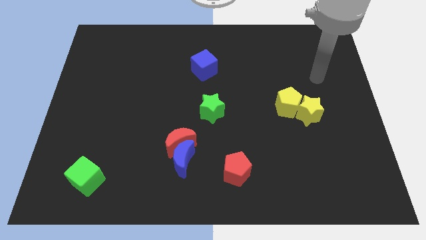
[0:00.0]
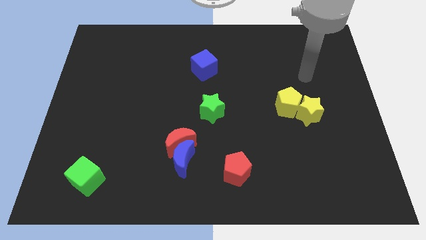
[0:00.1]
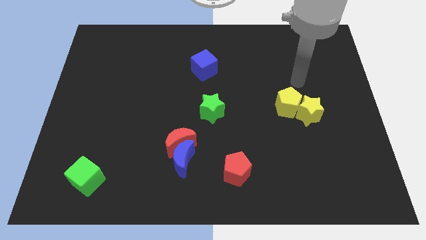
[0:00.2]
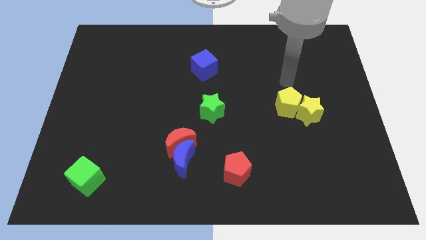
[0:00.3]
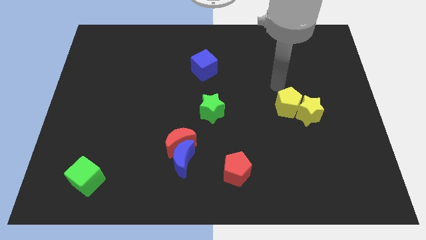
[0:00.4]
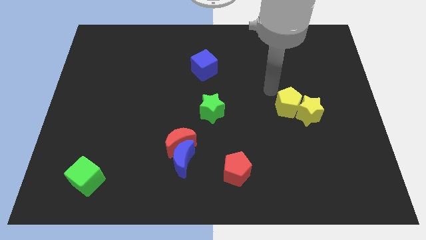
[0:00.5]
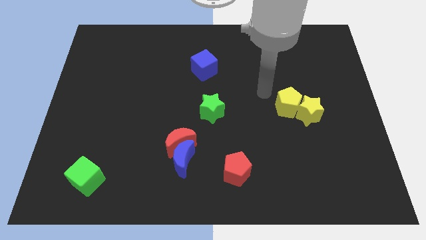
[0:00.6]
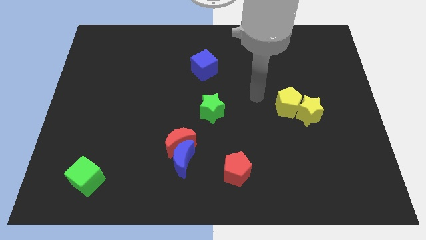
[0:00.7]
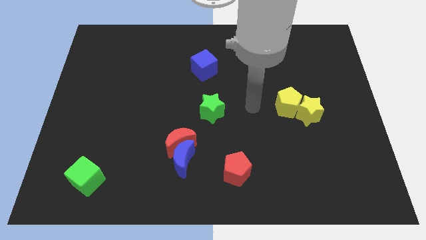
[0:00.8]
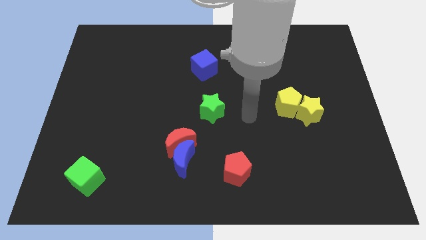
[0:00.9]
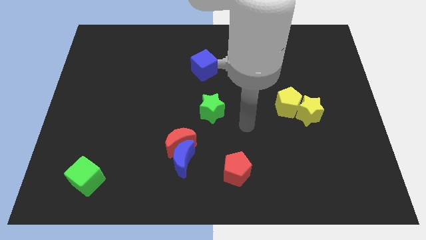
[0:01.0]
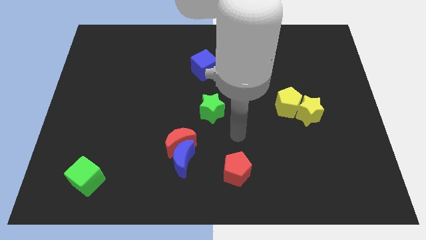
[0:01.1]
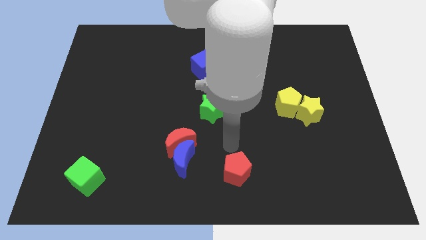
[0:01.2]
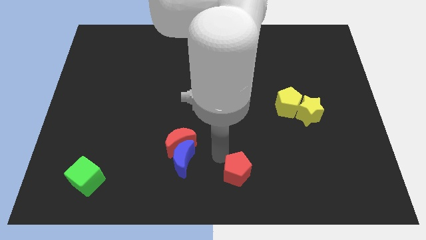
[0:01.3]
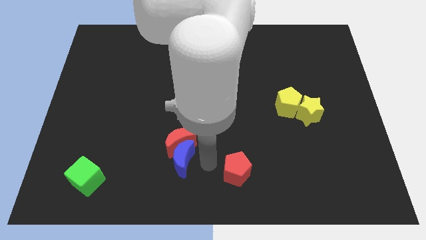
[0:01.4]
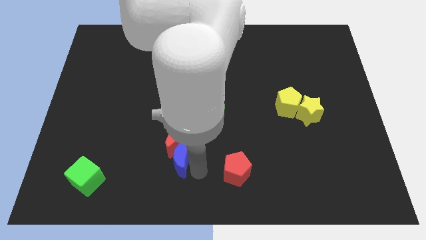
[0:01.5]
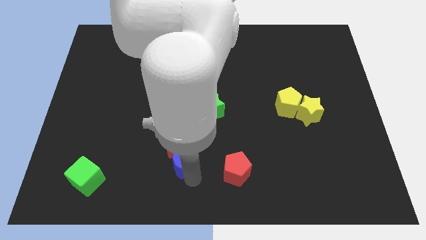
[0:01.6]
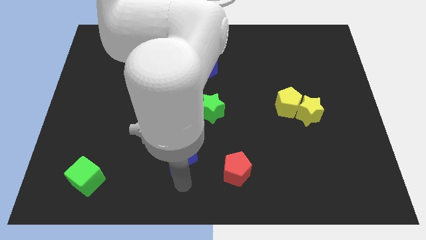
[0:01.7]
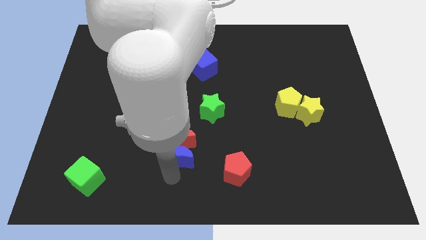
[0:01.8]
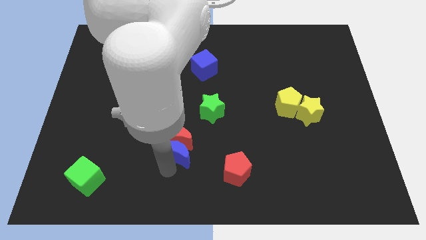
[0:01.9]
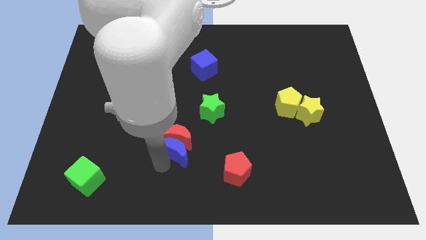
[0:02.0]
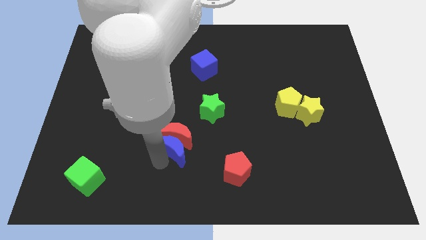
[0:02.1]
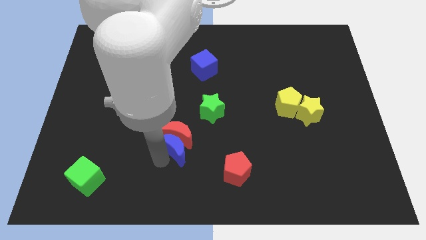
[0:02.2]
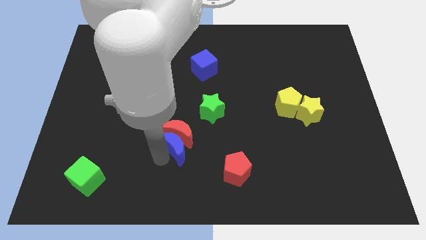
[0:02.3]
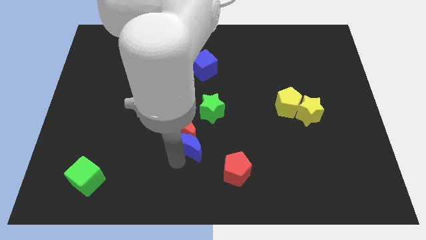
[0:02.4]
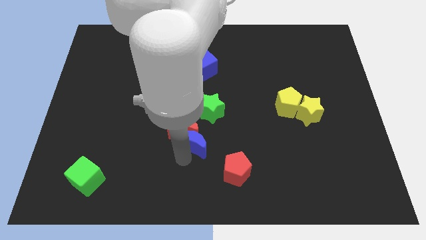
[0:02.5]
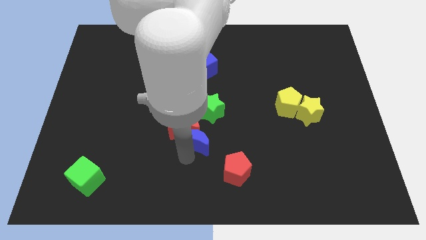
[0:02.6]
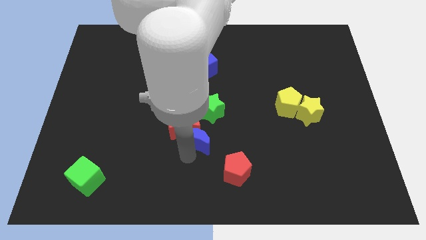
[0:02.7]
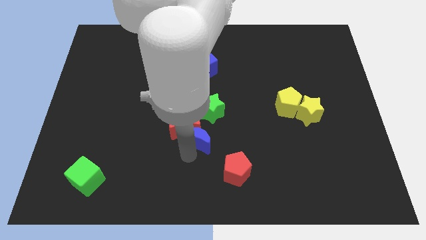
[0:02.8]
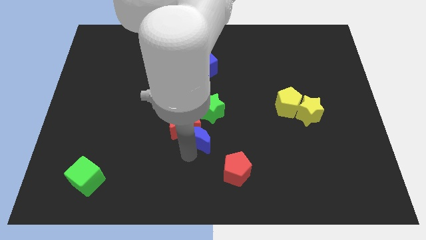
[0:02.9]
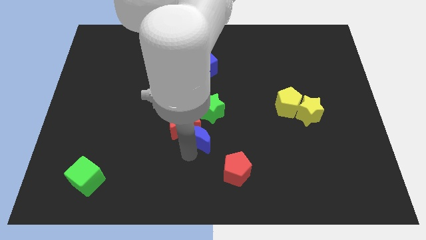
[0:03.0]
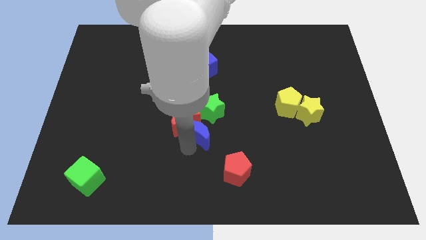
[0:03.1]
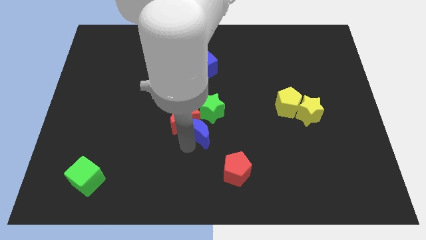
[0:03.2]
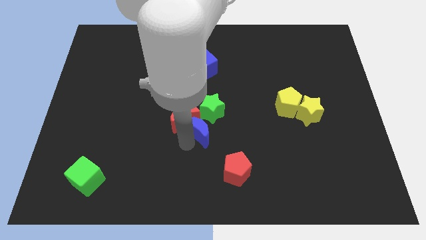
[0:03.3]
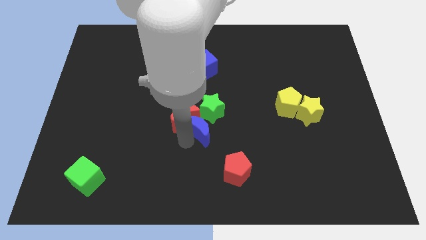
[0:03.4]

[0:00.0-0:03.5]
push the red moon upwards somewhat

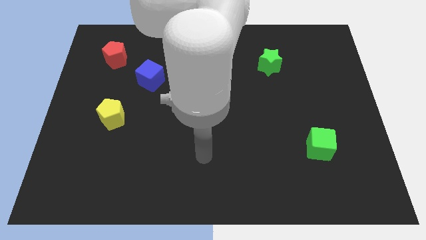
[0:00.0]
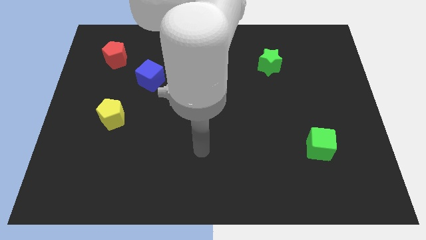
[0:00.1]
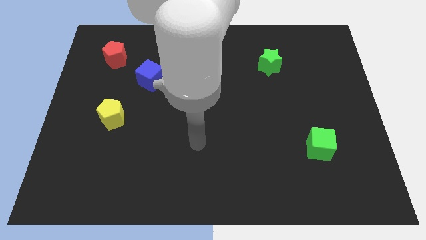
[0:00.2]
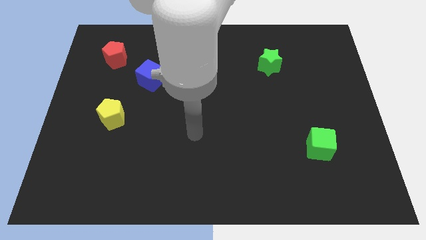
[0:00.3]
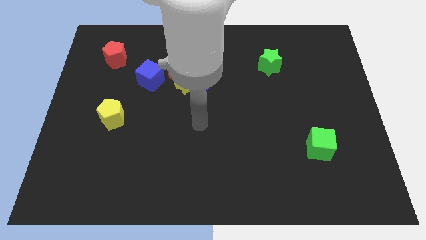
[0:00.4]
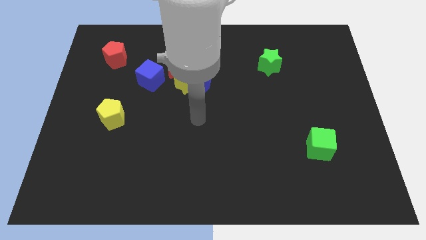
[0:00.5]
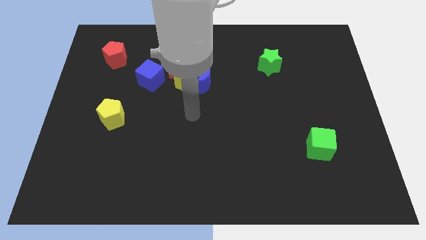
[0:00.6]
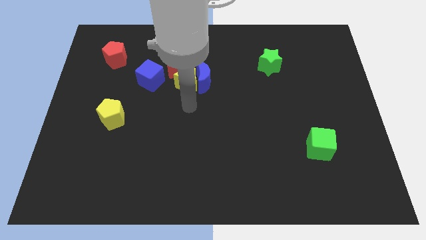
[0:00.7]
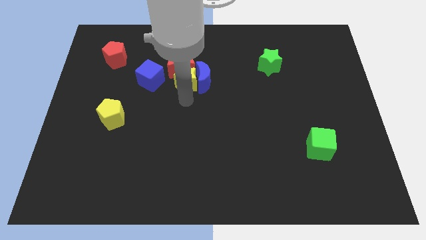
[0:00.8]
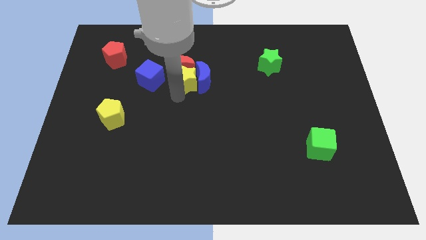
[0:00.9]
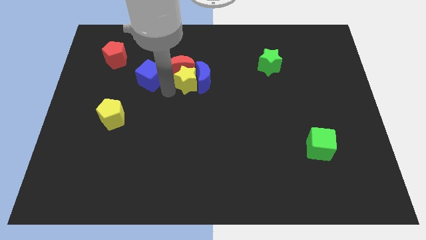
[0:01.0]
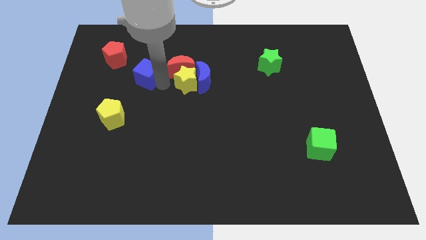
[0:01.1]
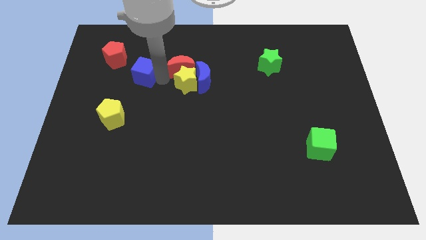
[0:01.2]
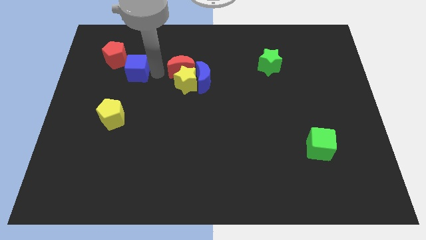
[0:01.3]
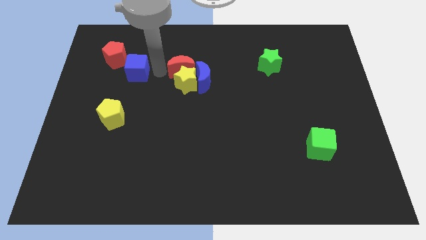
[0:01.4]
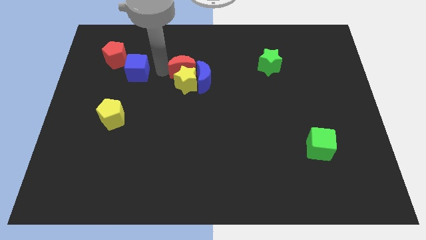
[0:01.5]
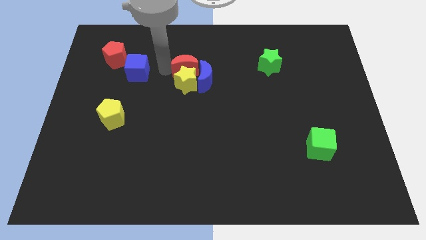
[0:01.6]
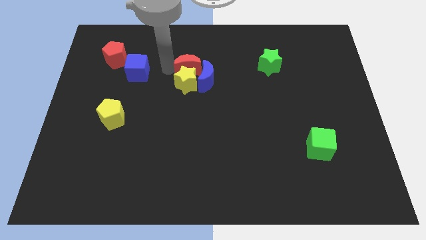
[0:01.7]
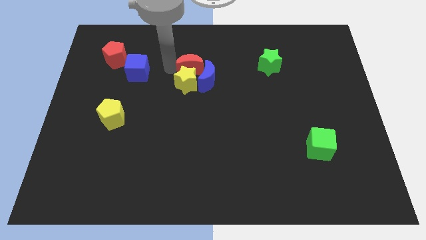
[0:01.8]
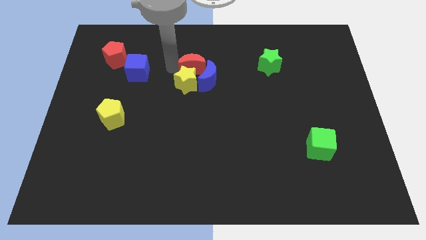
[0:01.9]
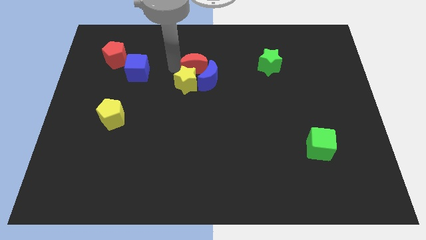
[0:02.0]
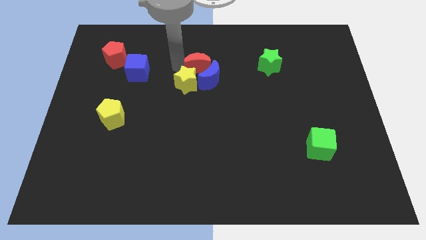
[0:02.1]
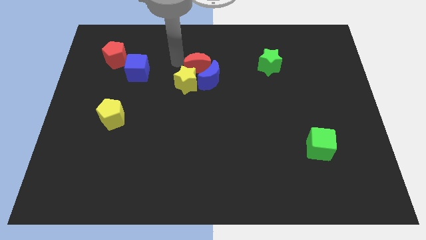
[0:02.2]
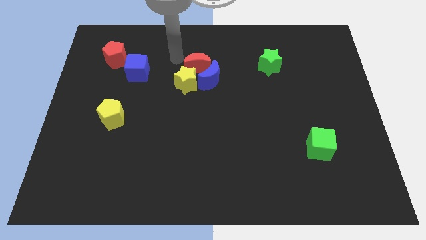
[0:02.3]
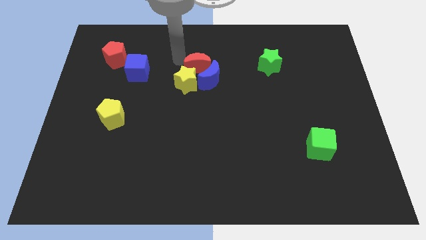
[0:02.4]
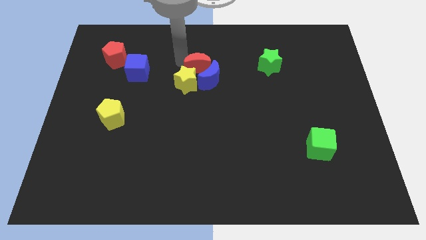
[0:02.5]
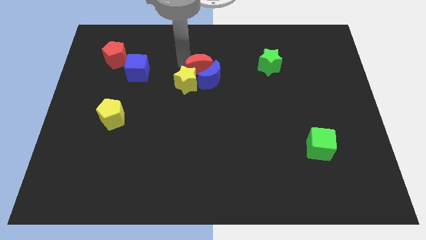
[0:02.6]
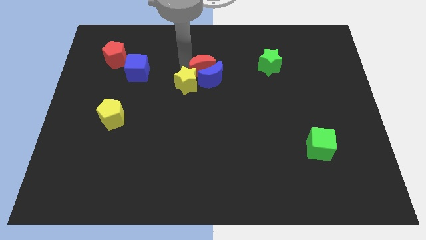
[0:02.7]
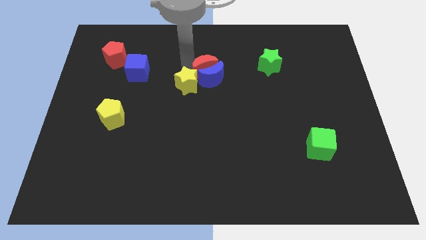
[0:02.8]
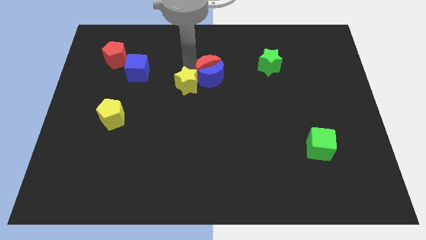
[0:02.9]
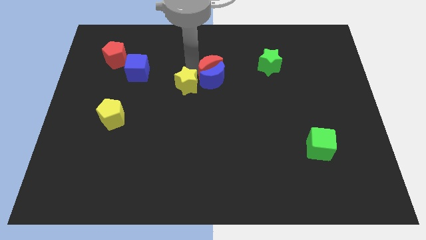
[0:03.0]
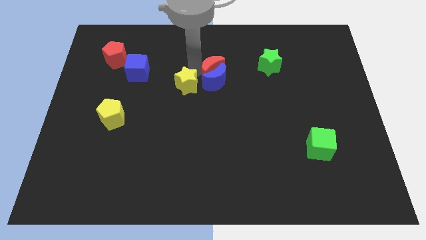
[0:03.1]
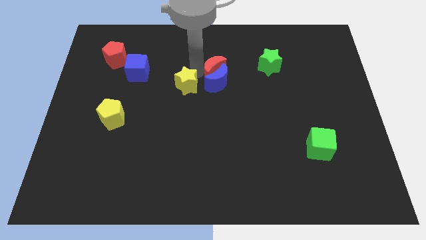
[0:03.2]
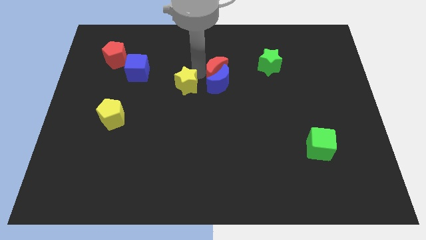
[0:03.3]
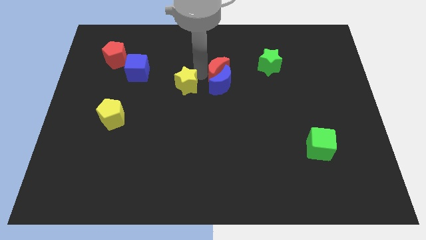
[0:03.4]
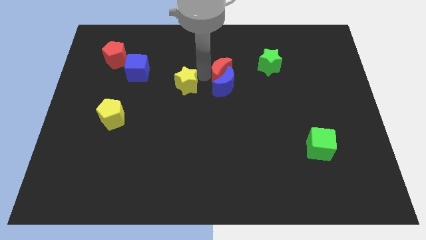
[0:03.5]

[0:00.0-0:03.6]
slightly push the red moon down and right

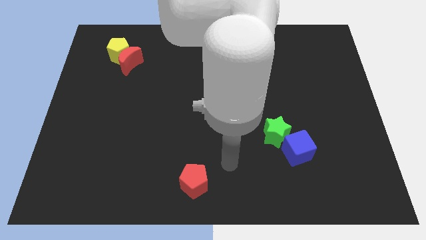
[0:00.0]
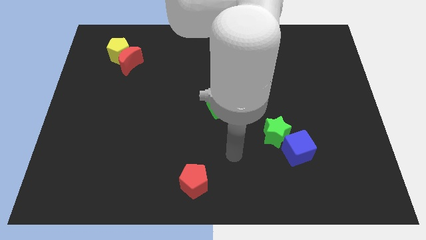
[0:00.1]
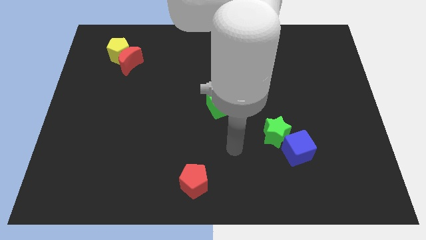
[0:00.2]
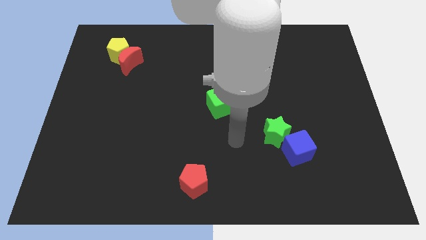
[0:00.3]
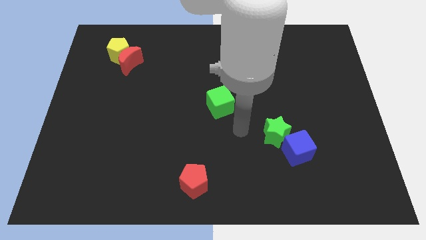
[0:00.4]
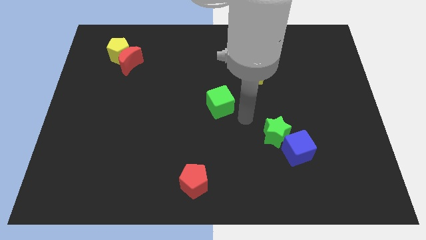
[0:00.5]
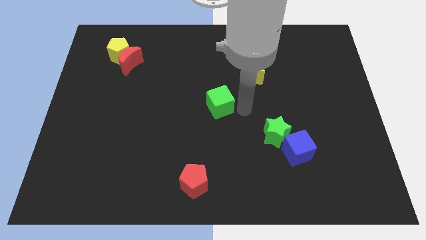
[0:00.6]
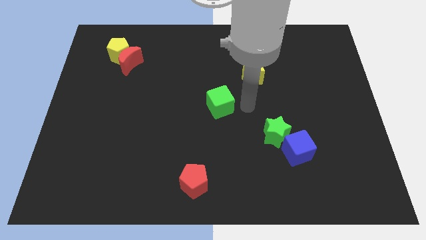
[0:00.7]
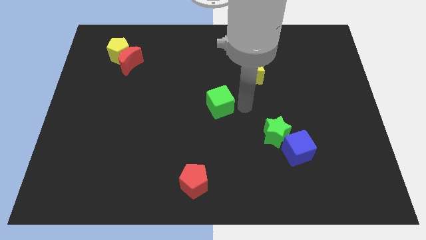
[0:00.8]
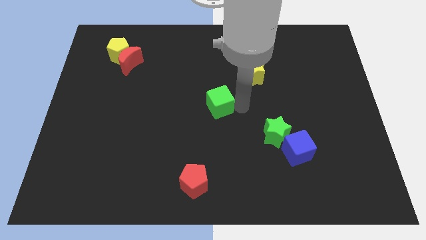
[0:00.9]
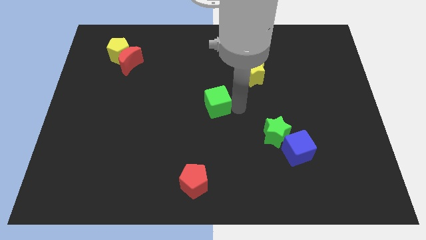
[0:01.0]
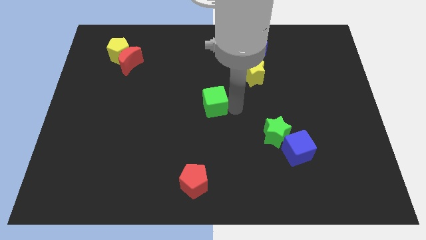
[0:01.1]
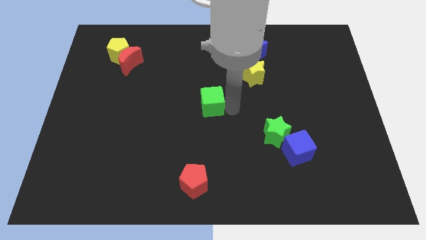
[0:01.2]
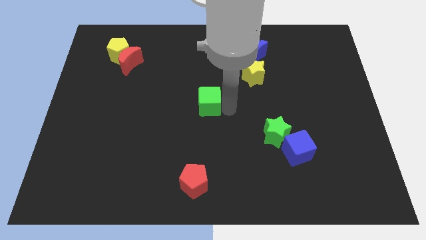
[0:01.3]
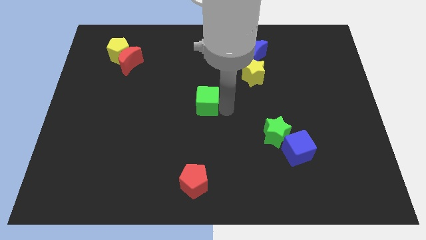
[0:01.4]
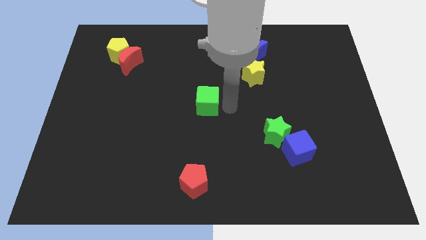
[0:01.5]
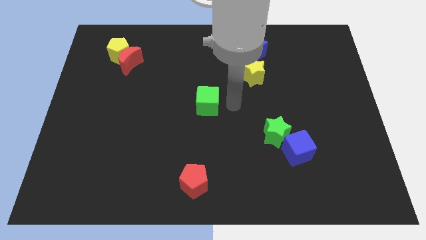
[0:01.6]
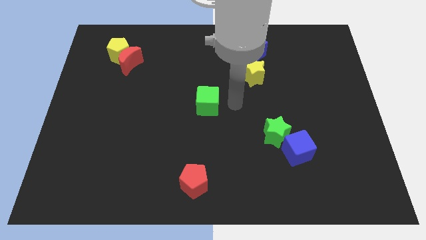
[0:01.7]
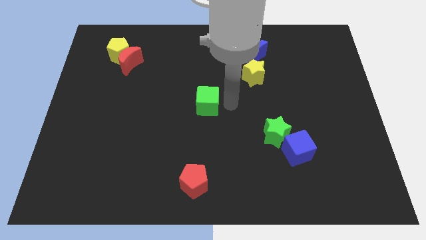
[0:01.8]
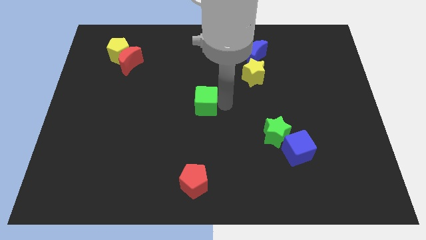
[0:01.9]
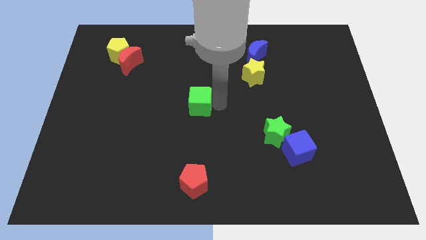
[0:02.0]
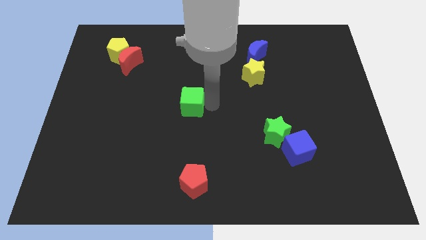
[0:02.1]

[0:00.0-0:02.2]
slightly push the green cube to the left
